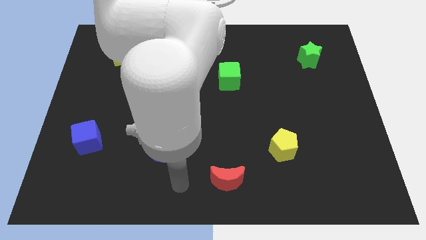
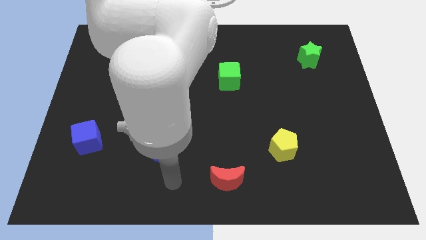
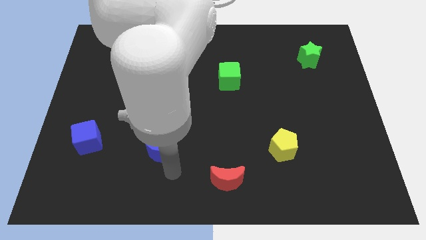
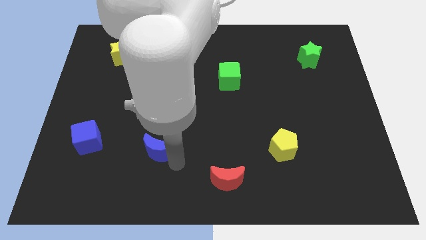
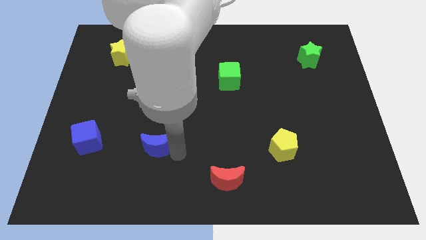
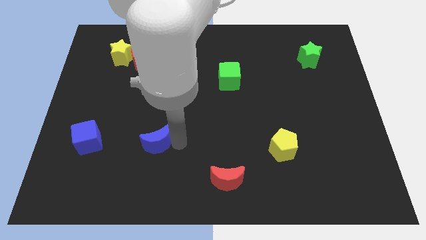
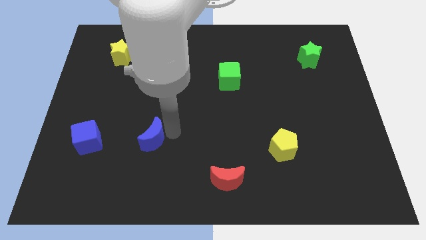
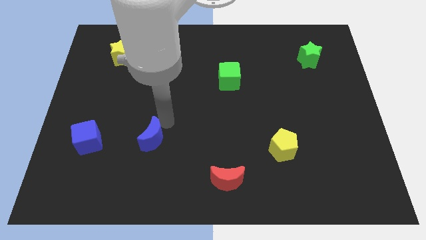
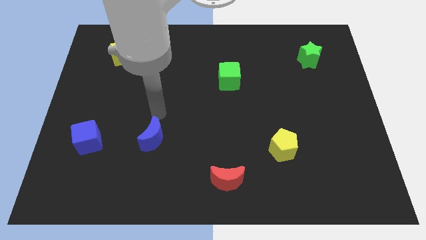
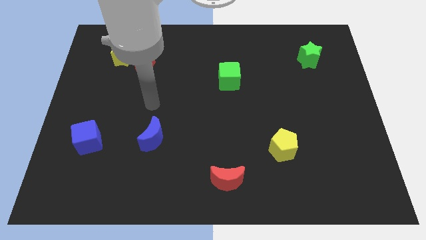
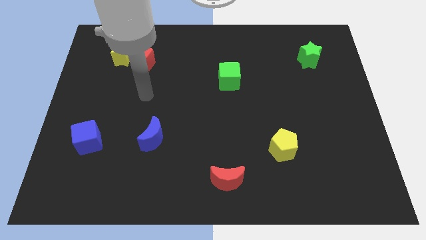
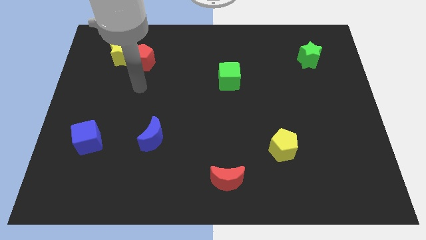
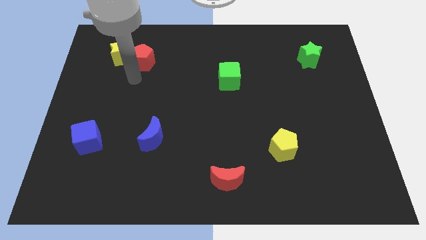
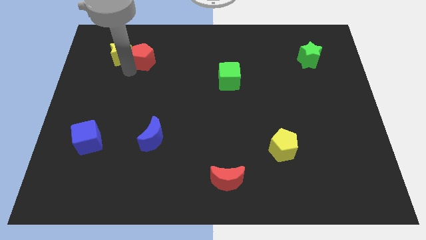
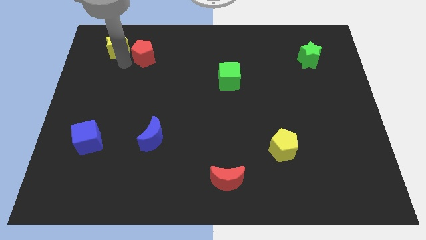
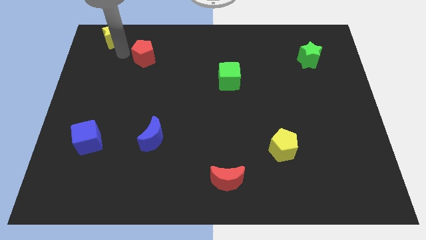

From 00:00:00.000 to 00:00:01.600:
pull the red pentagon apart from the yellow star

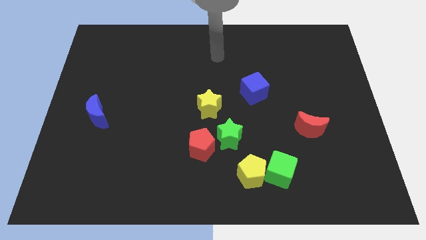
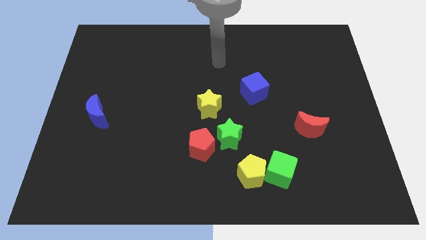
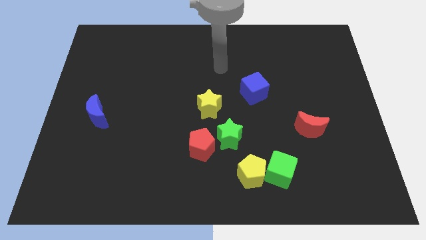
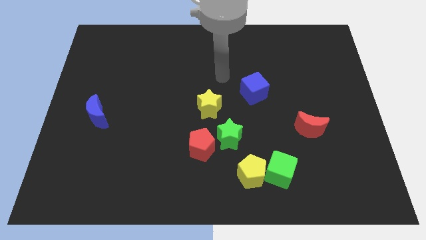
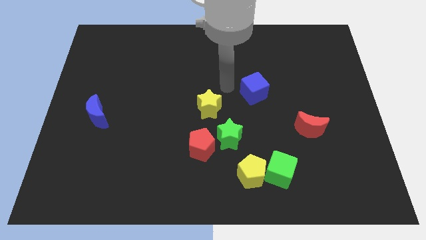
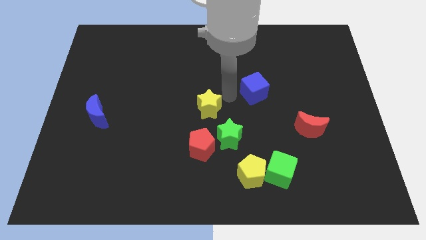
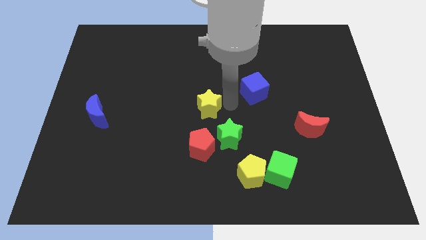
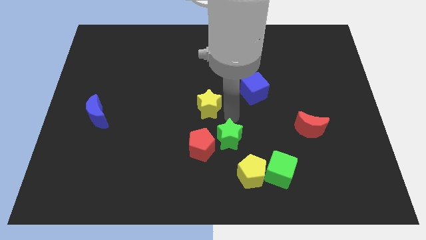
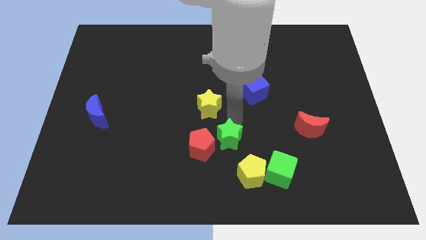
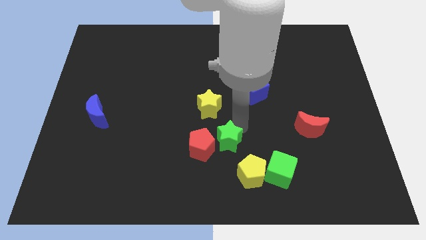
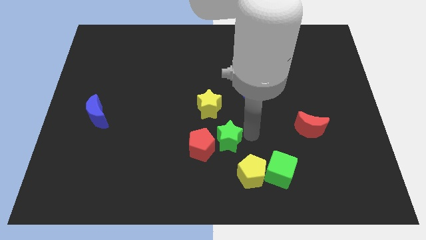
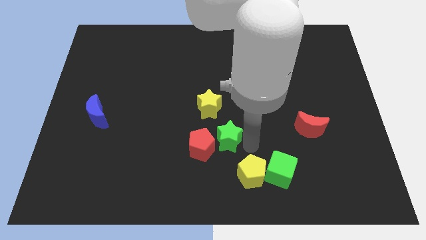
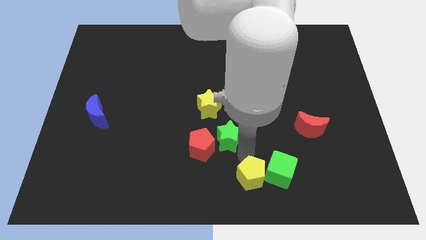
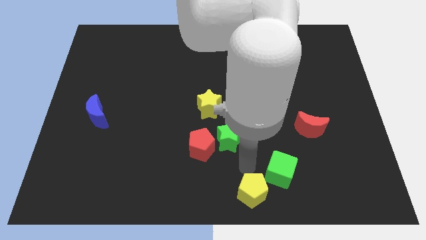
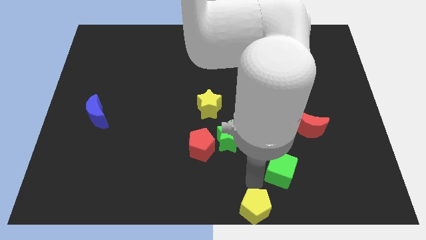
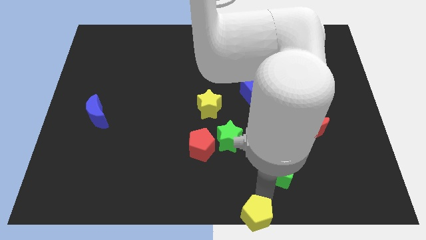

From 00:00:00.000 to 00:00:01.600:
move the green cube away from the yellow pentagon

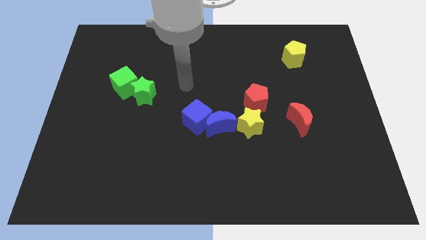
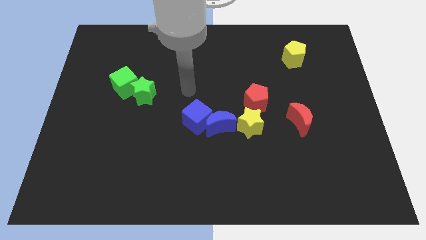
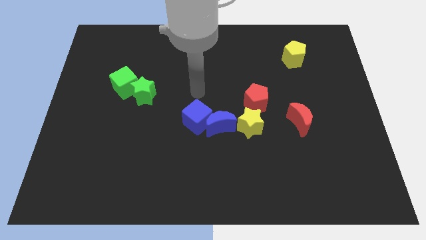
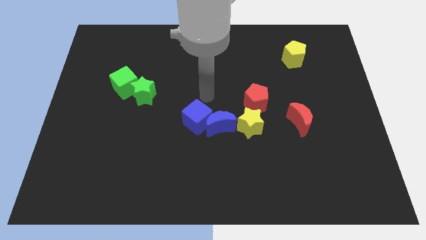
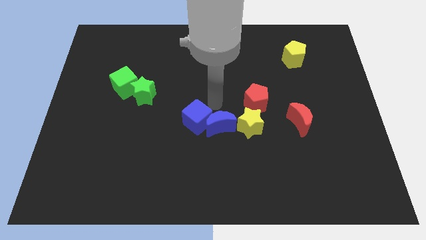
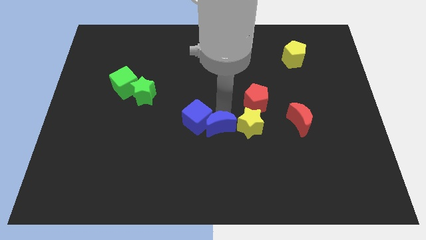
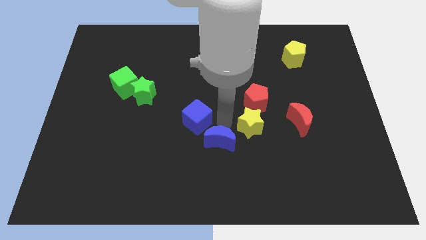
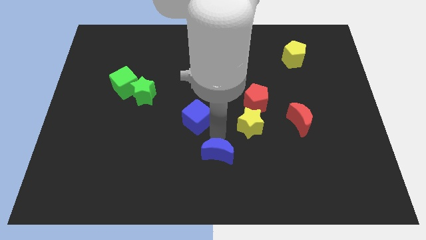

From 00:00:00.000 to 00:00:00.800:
pull the blue cube apart from the blue moon

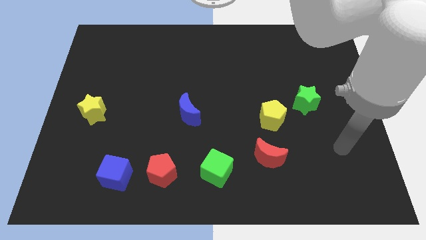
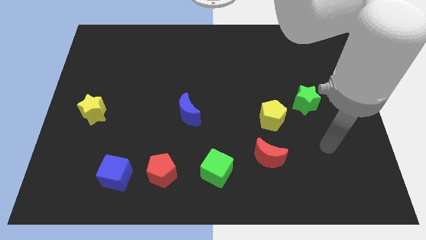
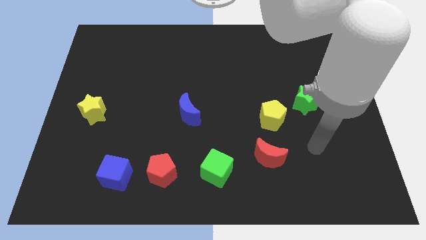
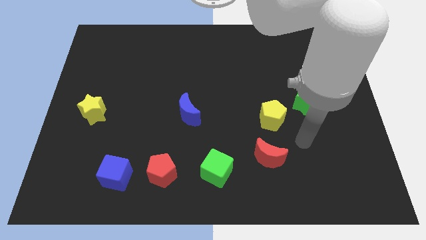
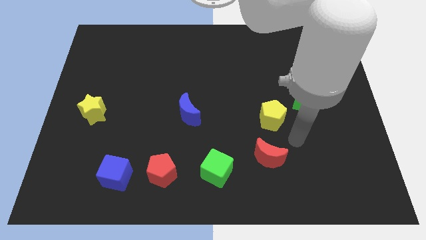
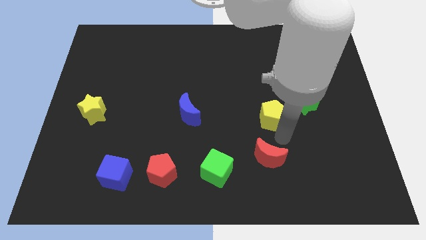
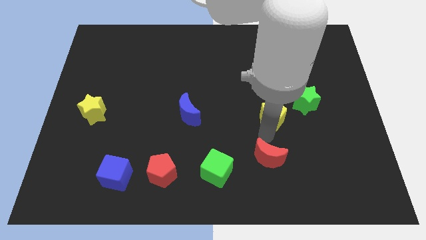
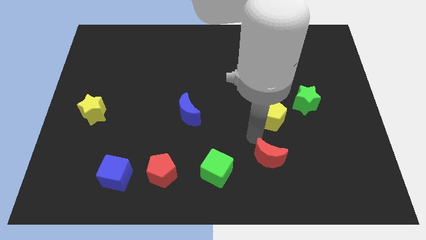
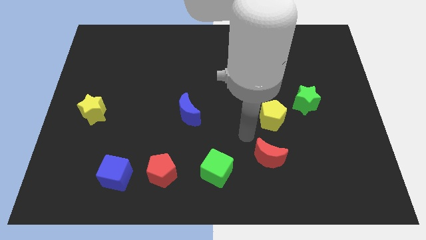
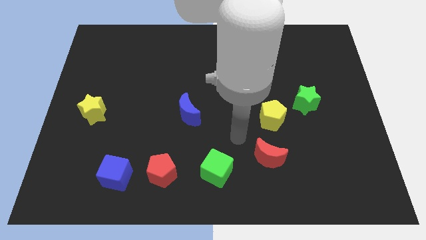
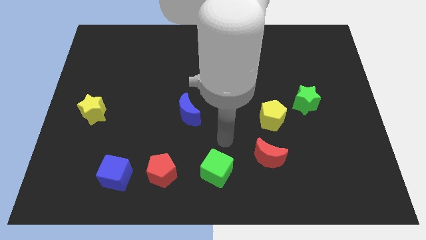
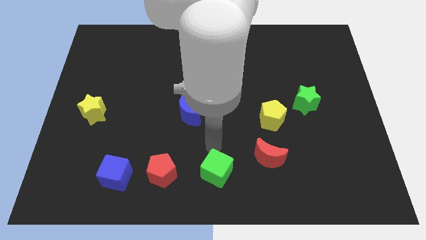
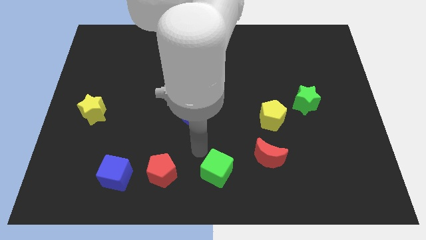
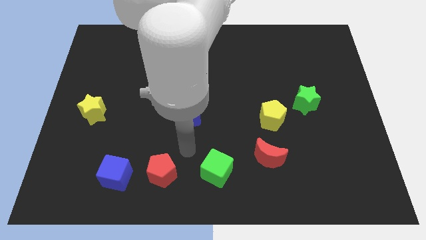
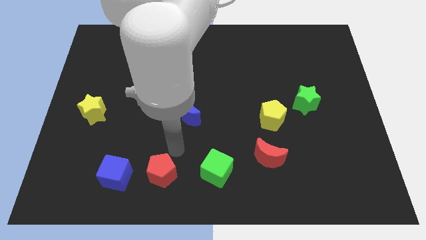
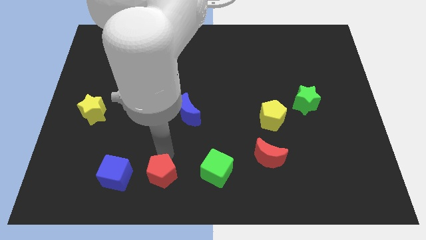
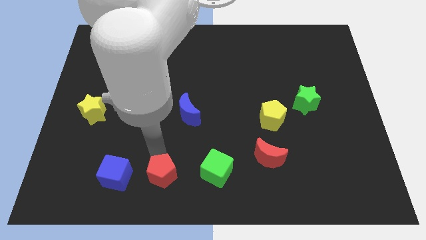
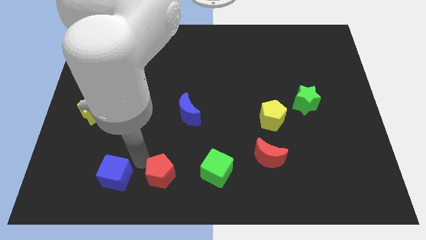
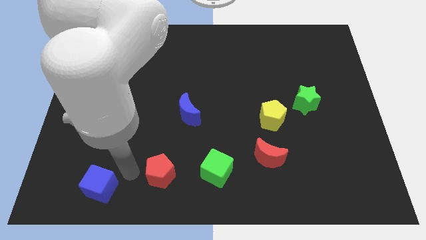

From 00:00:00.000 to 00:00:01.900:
move the red pentagon away from the blue cube

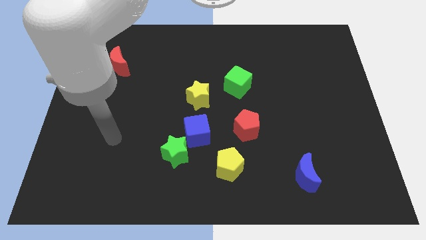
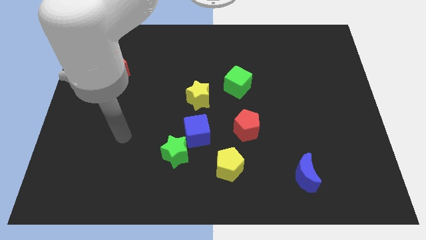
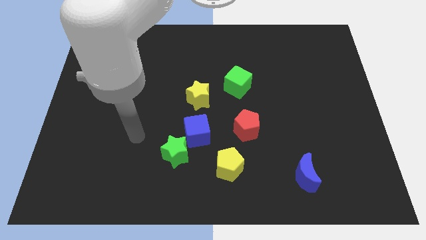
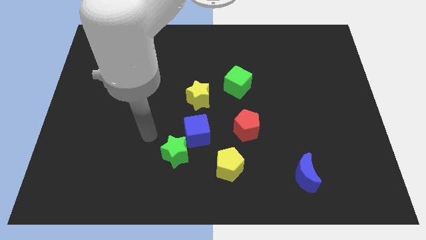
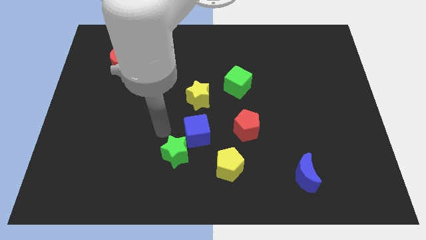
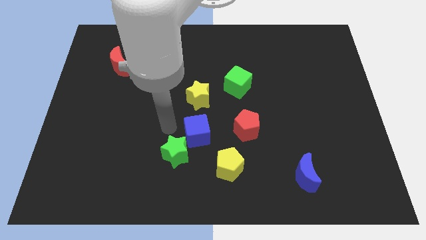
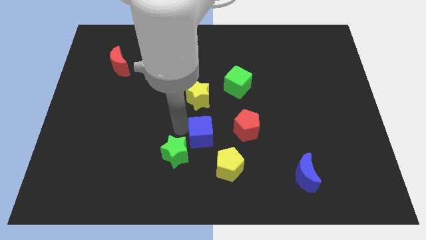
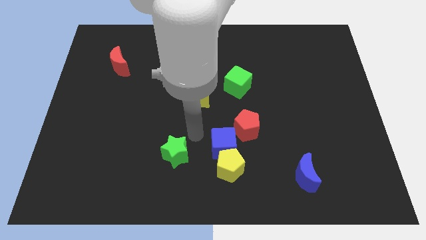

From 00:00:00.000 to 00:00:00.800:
separate the green star from the blue cube

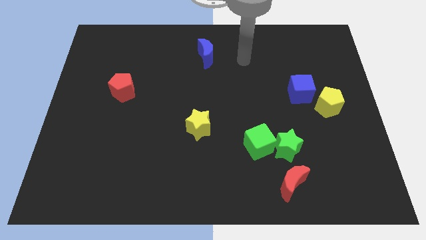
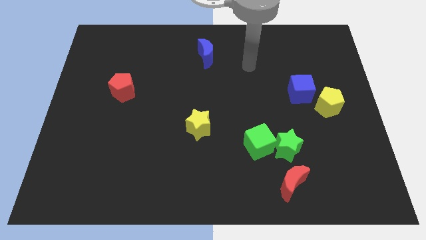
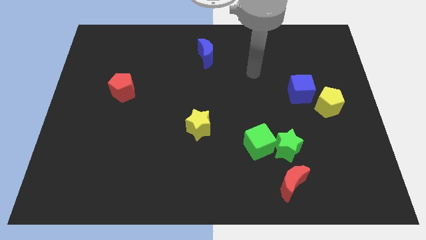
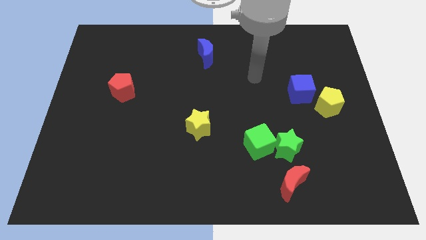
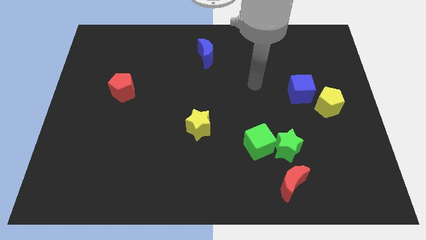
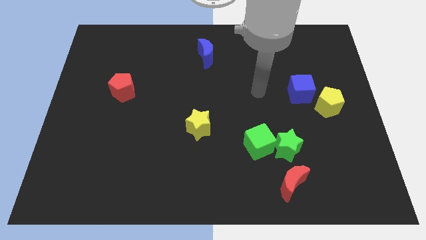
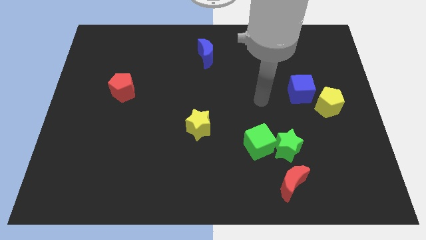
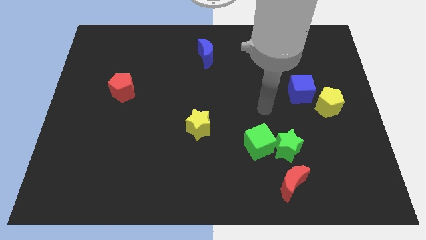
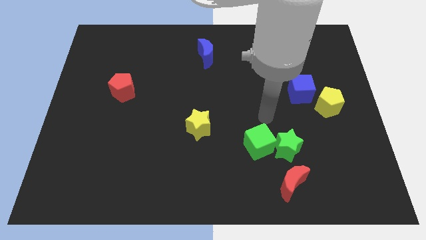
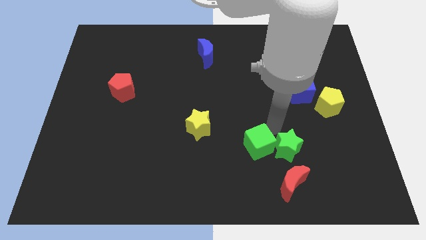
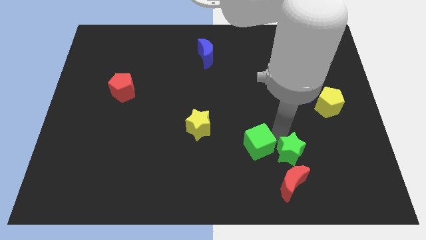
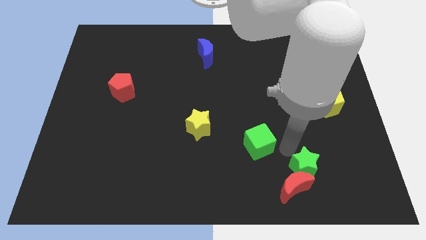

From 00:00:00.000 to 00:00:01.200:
pull the green cube apart from the green star

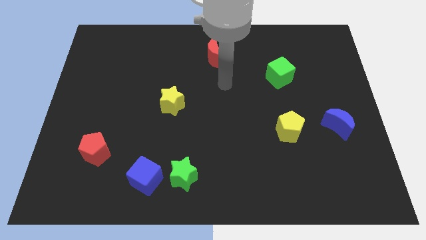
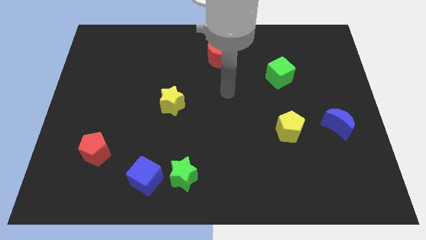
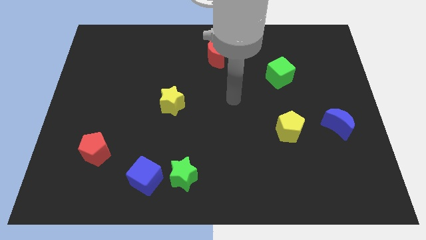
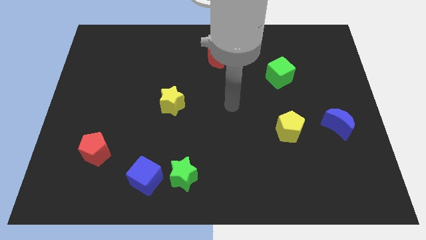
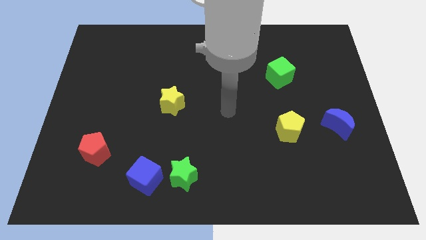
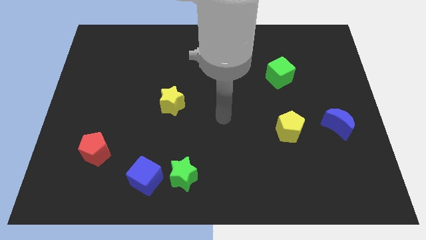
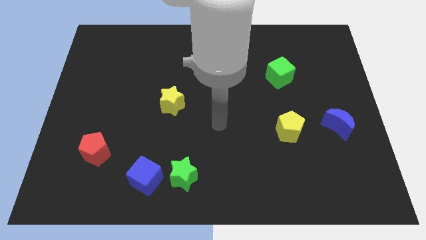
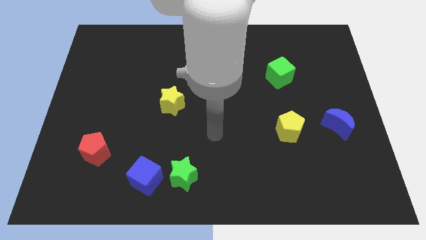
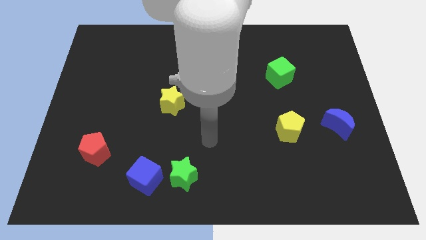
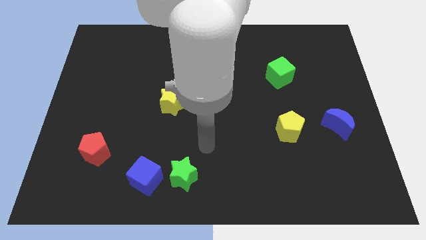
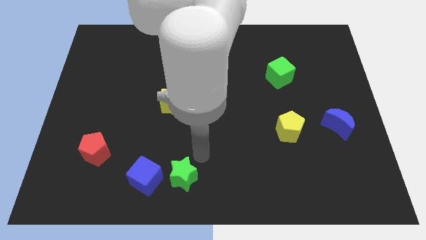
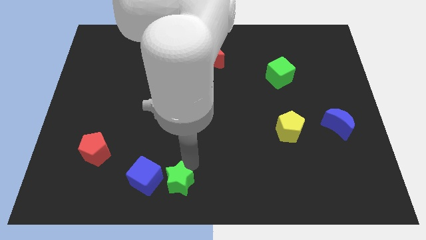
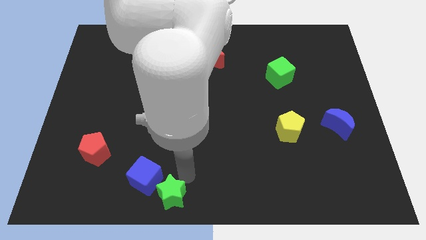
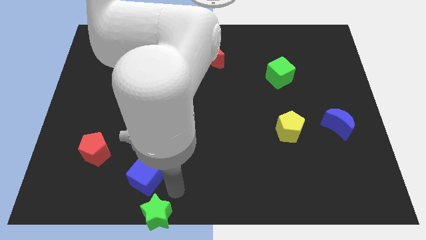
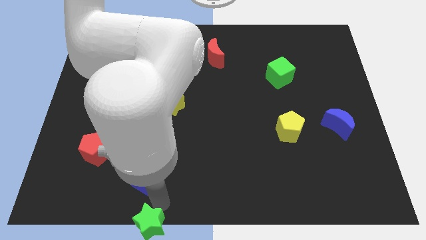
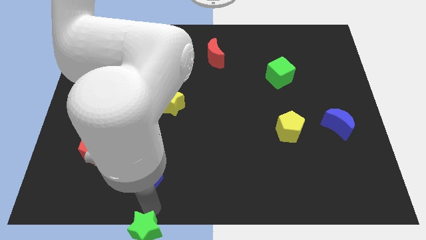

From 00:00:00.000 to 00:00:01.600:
pull the blue cube apart from the green star
